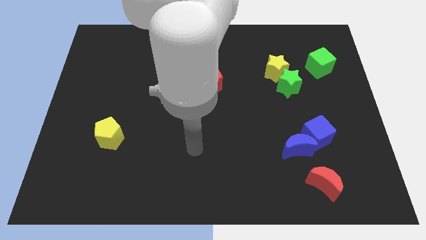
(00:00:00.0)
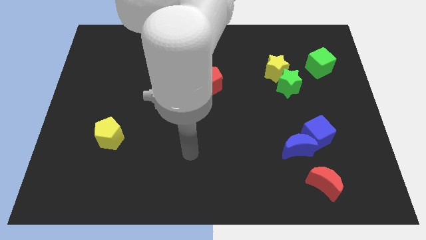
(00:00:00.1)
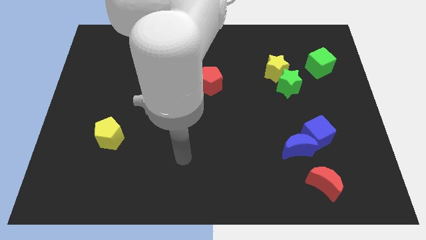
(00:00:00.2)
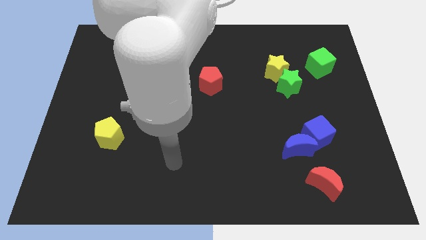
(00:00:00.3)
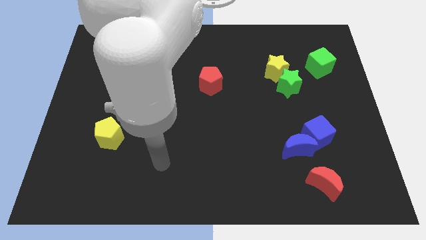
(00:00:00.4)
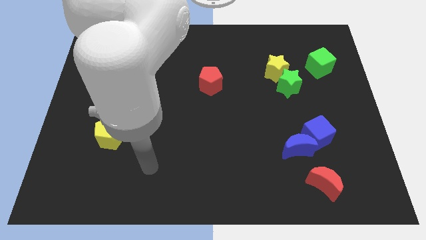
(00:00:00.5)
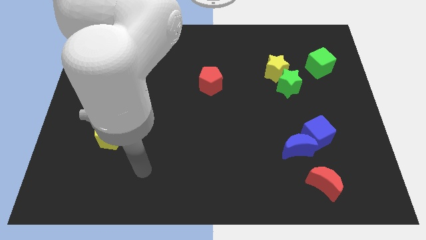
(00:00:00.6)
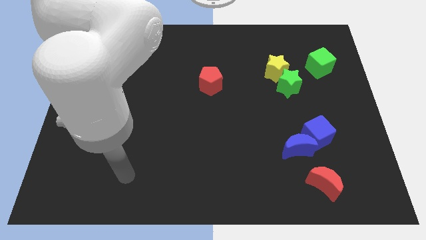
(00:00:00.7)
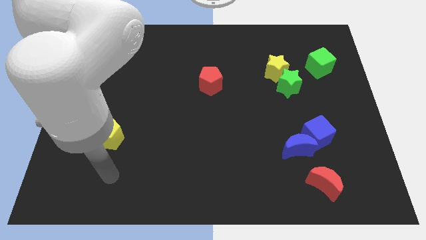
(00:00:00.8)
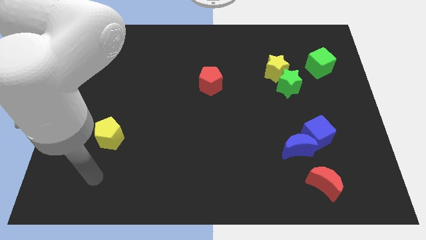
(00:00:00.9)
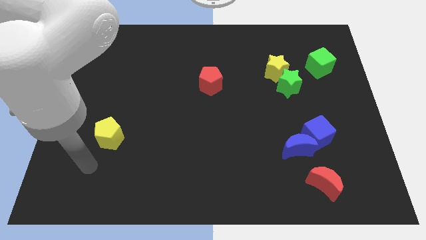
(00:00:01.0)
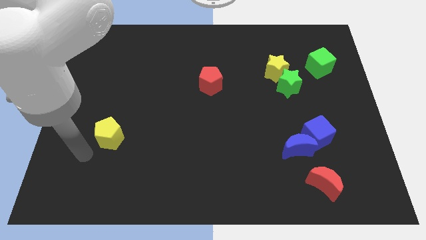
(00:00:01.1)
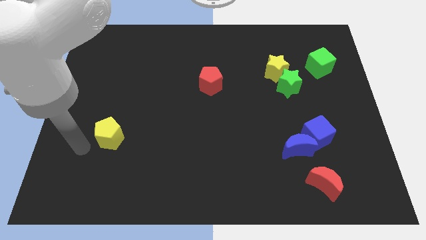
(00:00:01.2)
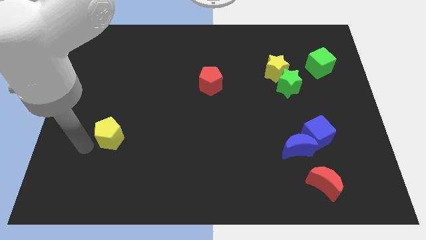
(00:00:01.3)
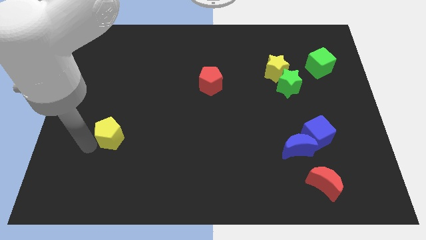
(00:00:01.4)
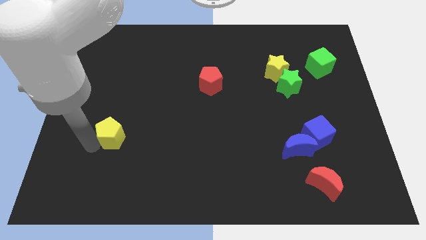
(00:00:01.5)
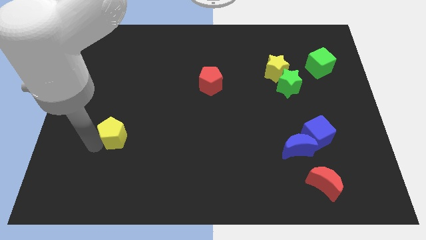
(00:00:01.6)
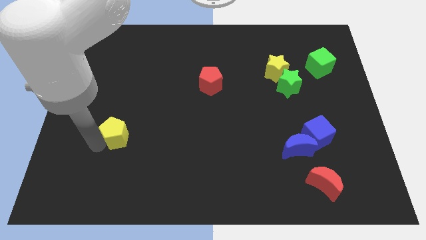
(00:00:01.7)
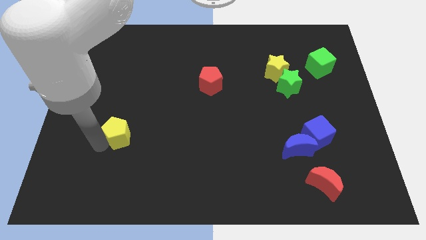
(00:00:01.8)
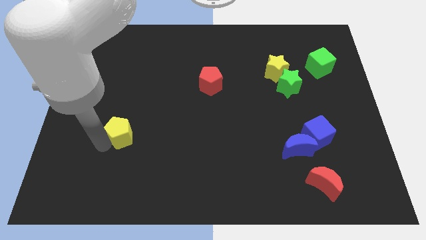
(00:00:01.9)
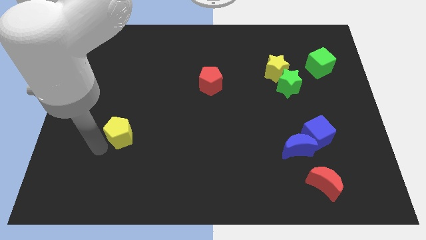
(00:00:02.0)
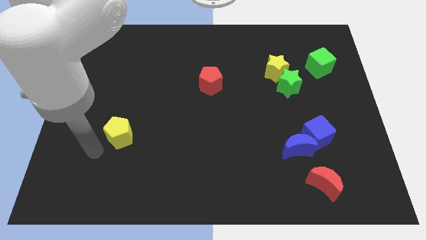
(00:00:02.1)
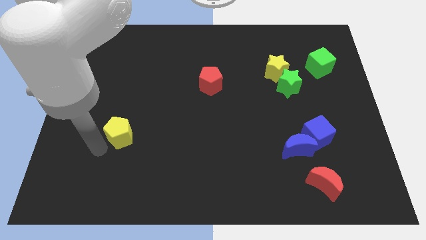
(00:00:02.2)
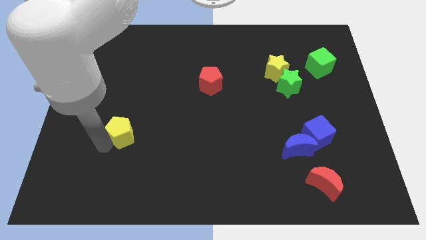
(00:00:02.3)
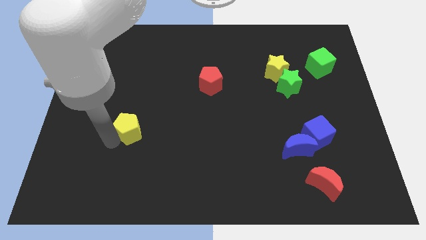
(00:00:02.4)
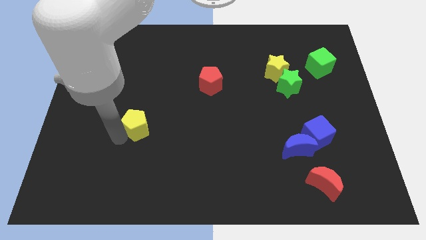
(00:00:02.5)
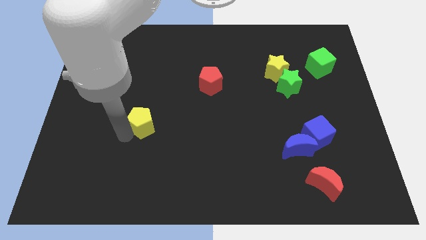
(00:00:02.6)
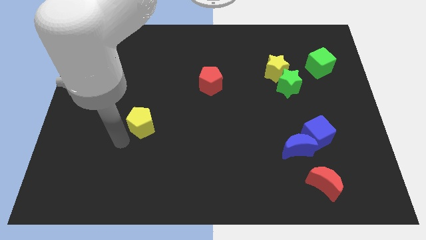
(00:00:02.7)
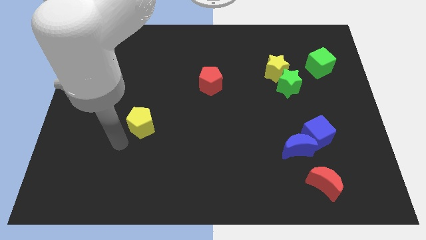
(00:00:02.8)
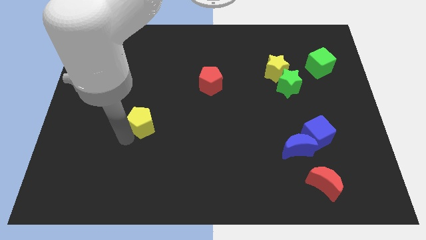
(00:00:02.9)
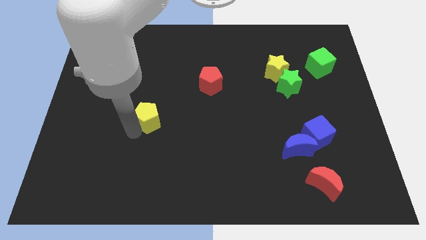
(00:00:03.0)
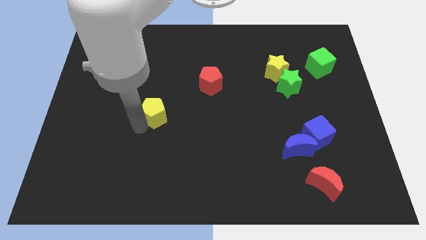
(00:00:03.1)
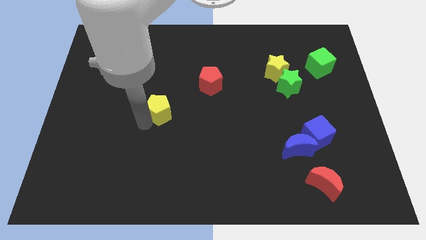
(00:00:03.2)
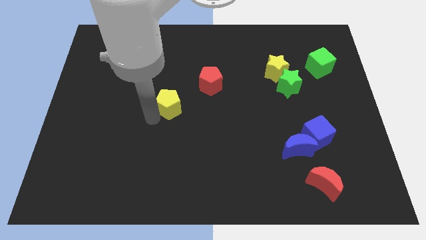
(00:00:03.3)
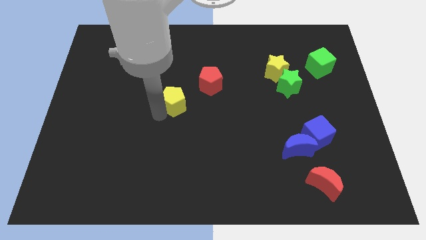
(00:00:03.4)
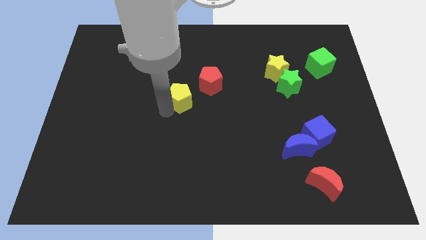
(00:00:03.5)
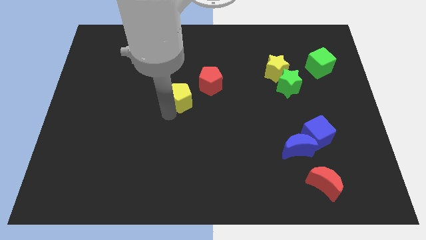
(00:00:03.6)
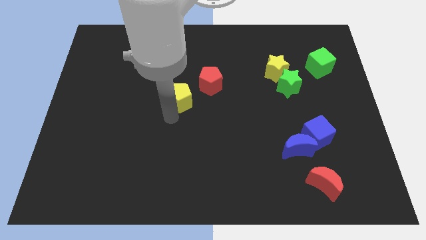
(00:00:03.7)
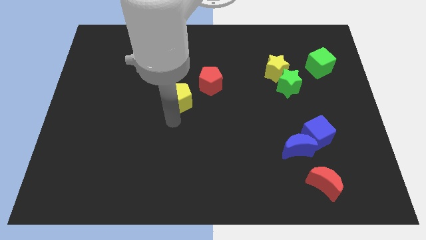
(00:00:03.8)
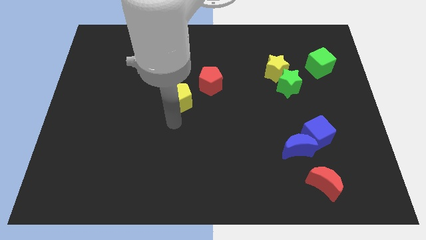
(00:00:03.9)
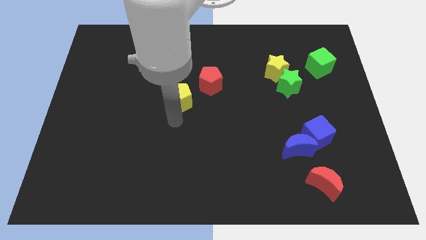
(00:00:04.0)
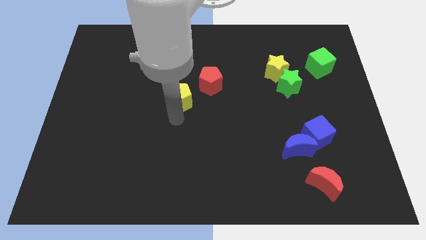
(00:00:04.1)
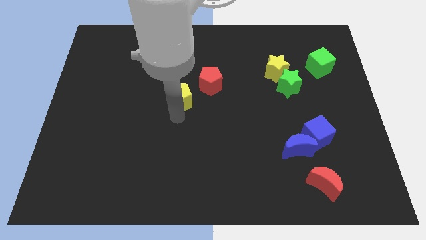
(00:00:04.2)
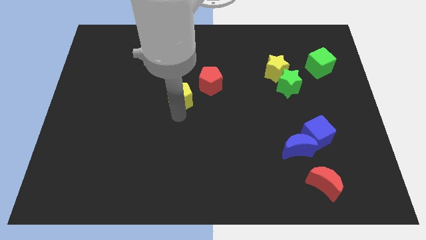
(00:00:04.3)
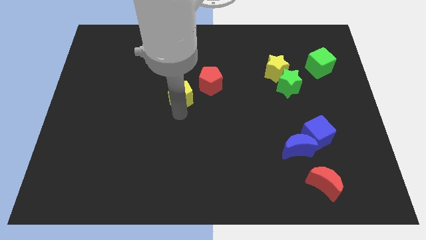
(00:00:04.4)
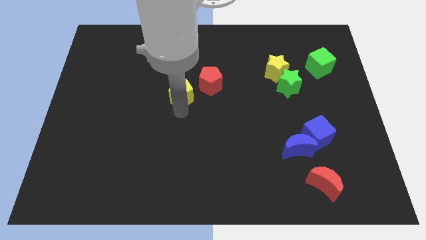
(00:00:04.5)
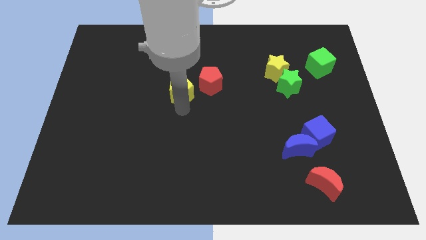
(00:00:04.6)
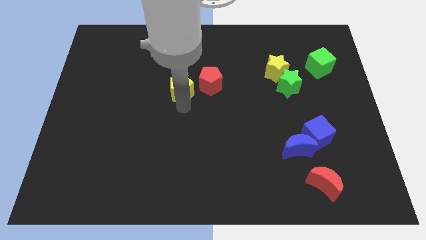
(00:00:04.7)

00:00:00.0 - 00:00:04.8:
move the yellow pentagon upwards and to the right

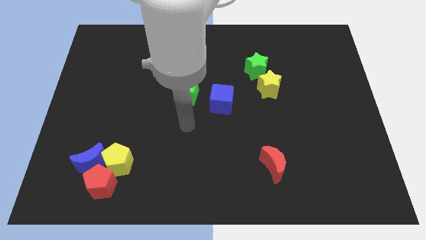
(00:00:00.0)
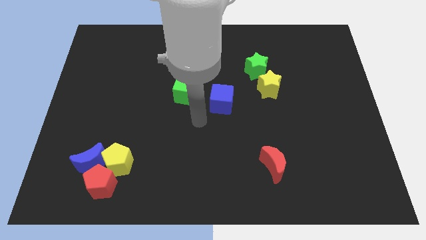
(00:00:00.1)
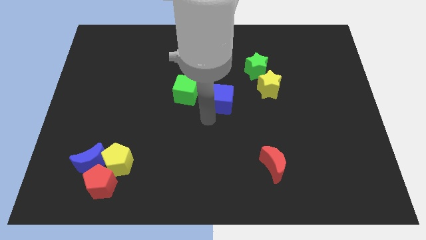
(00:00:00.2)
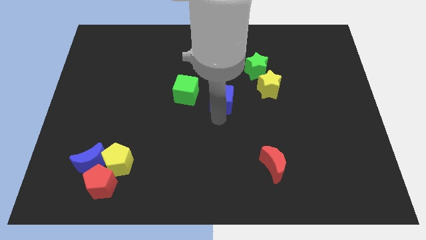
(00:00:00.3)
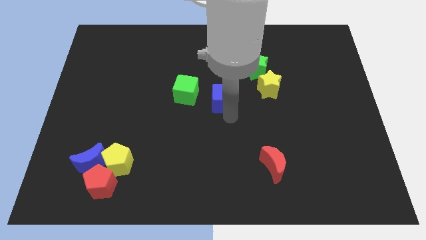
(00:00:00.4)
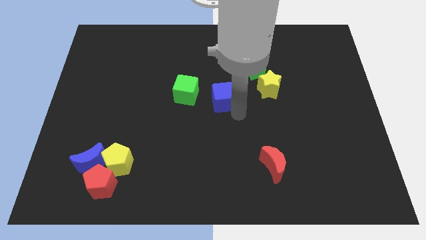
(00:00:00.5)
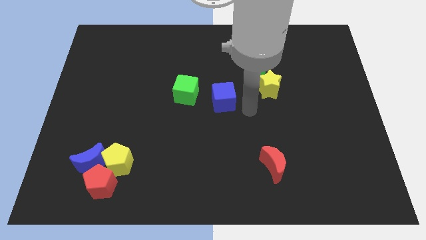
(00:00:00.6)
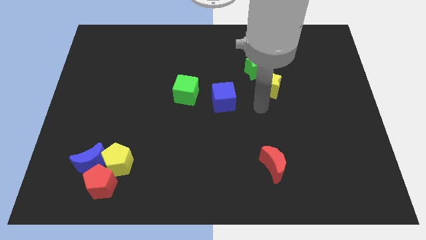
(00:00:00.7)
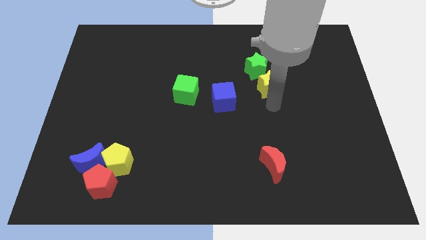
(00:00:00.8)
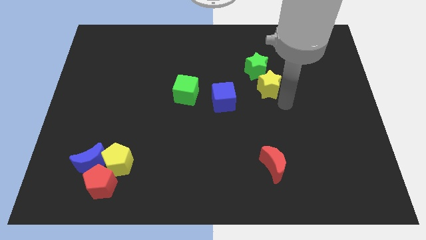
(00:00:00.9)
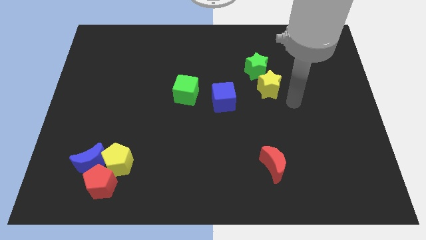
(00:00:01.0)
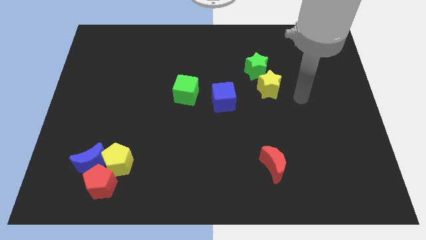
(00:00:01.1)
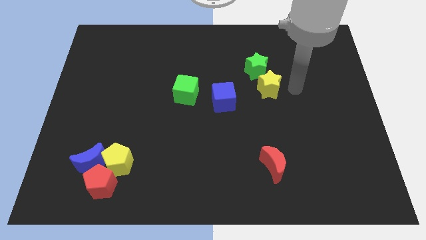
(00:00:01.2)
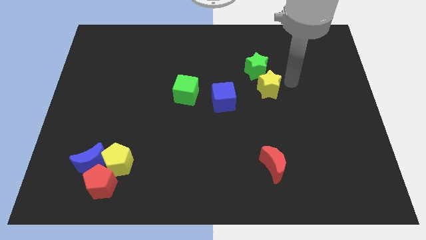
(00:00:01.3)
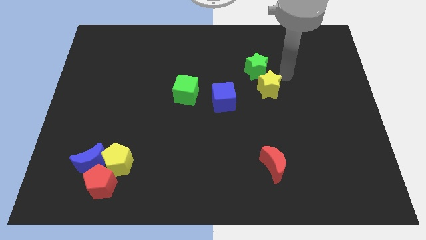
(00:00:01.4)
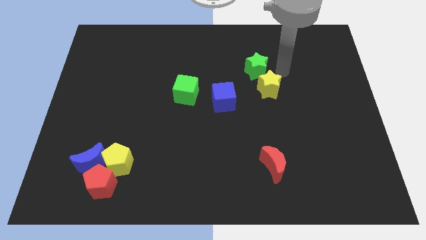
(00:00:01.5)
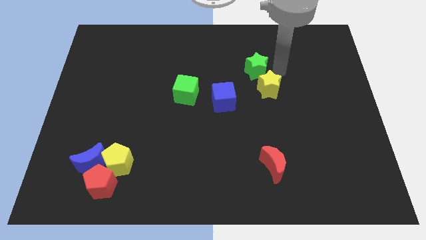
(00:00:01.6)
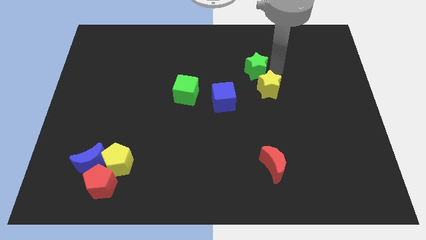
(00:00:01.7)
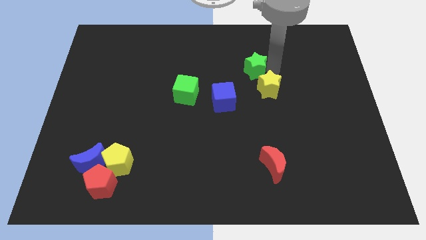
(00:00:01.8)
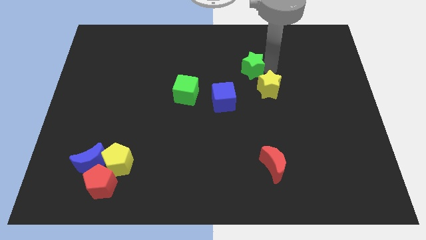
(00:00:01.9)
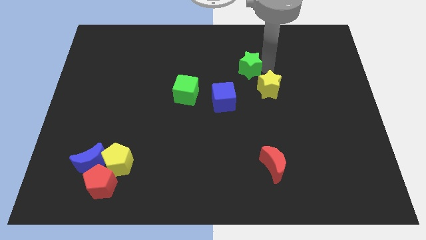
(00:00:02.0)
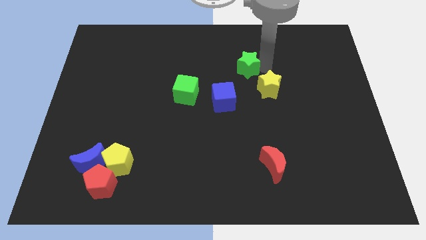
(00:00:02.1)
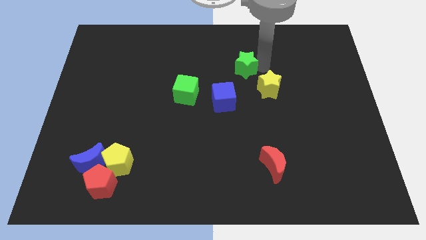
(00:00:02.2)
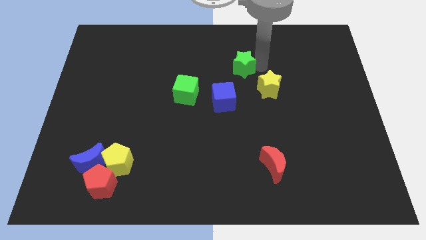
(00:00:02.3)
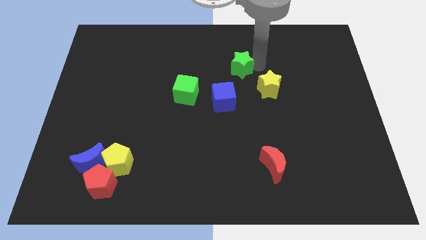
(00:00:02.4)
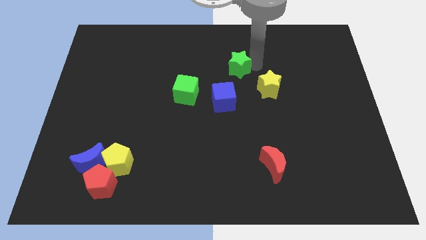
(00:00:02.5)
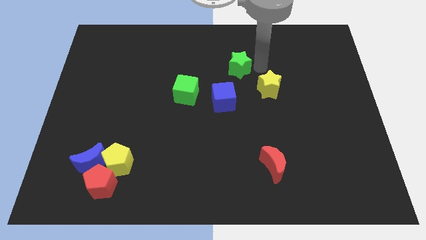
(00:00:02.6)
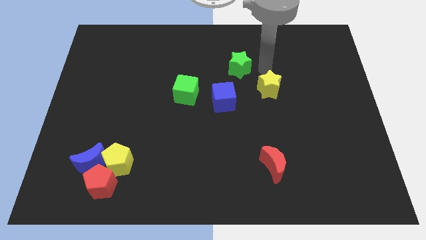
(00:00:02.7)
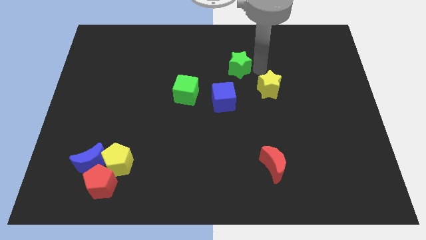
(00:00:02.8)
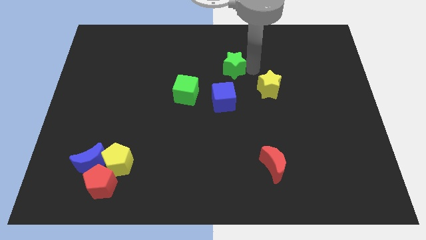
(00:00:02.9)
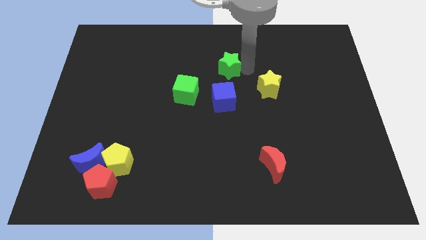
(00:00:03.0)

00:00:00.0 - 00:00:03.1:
move the green star slightly to the left

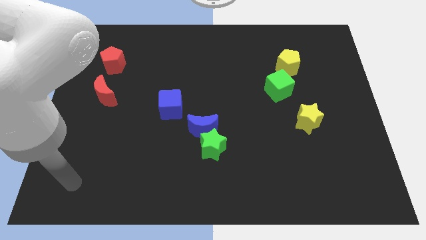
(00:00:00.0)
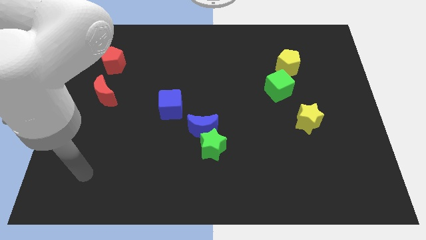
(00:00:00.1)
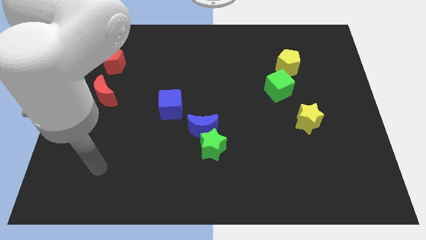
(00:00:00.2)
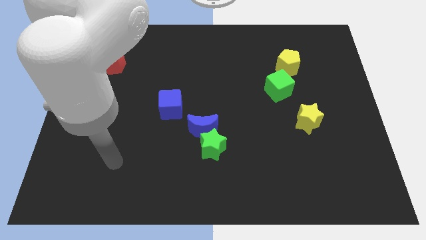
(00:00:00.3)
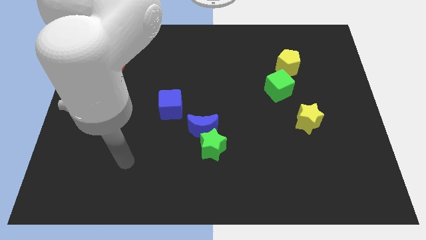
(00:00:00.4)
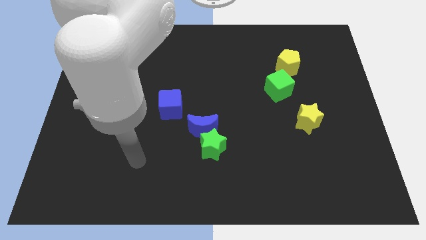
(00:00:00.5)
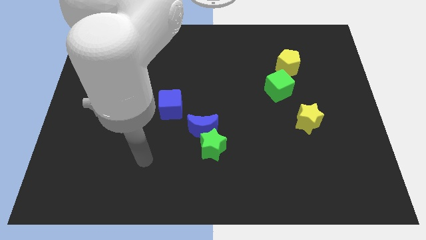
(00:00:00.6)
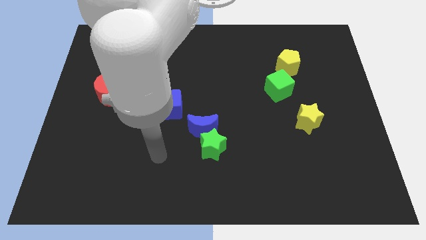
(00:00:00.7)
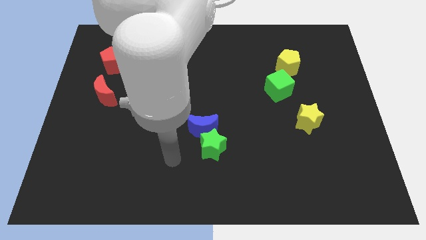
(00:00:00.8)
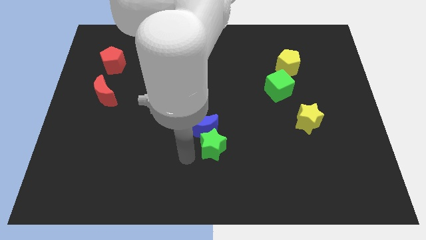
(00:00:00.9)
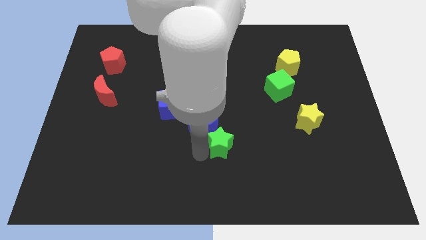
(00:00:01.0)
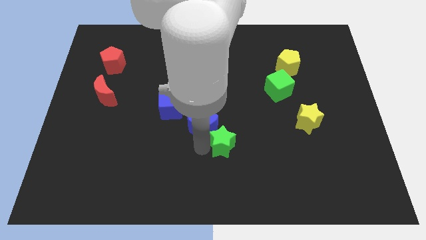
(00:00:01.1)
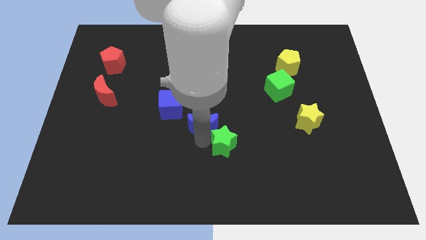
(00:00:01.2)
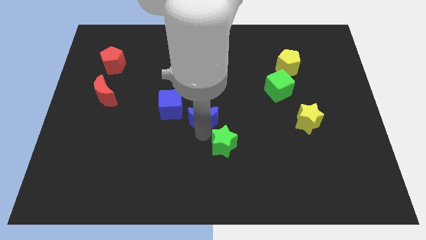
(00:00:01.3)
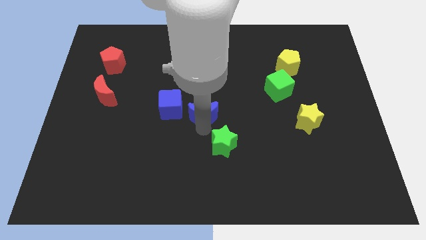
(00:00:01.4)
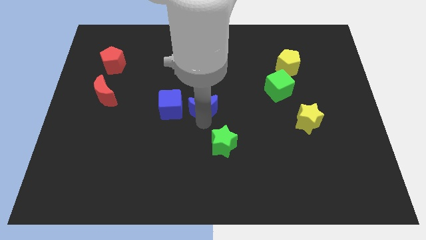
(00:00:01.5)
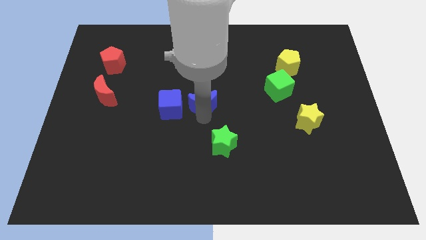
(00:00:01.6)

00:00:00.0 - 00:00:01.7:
move the blue moon somewhat upwards
